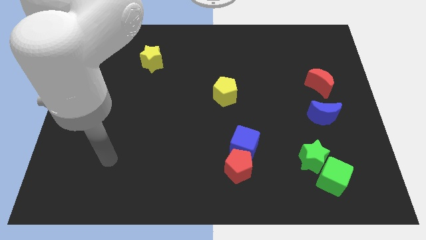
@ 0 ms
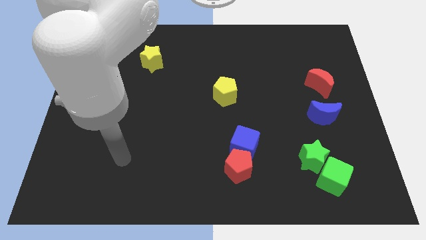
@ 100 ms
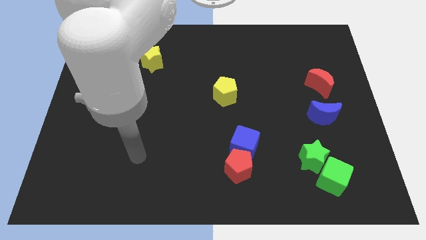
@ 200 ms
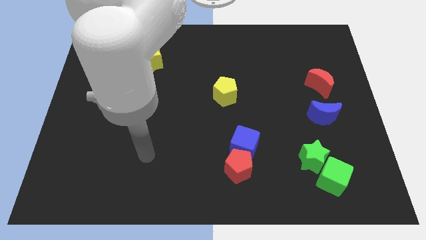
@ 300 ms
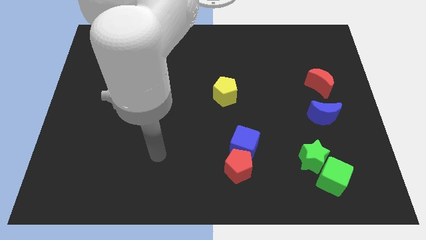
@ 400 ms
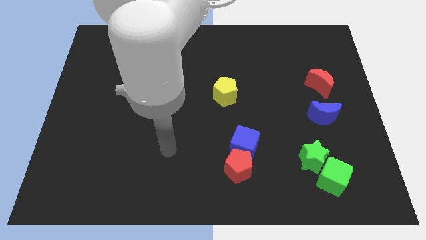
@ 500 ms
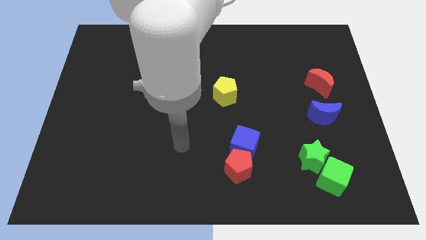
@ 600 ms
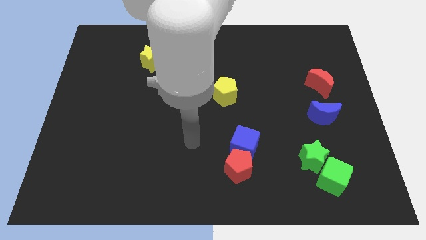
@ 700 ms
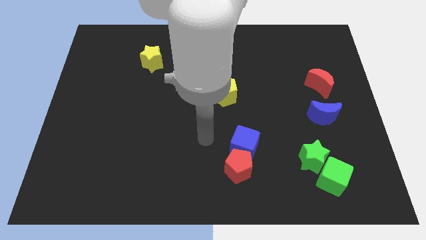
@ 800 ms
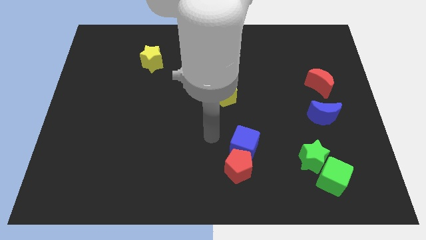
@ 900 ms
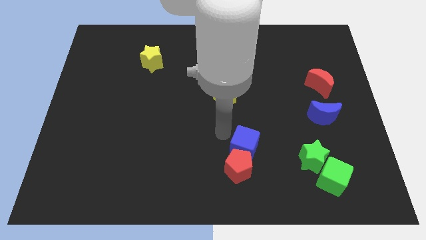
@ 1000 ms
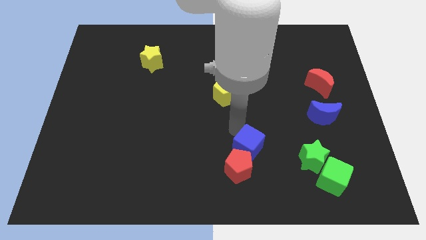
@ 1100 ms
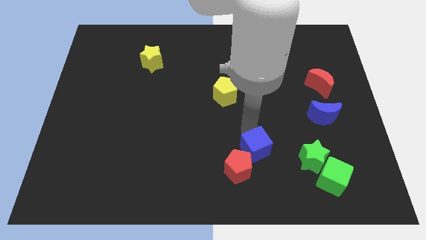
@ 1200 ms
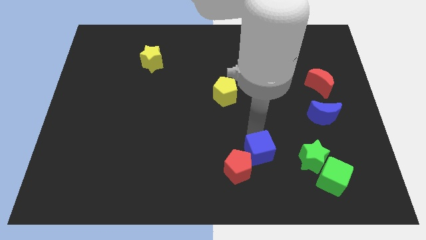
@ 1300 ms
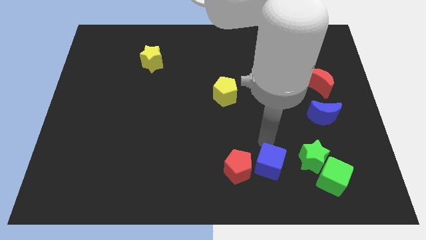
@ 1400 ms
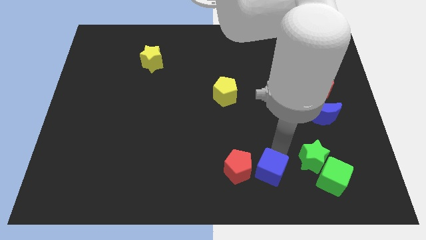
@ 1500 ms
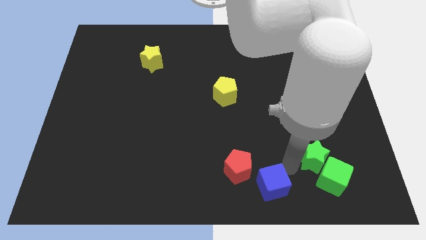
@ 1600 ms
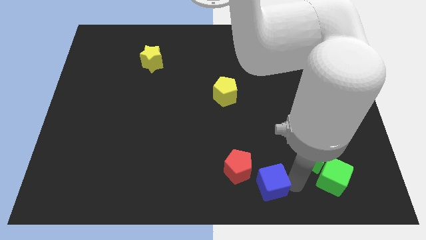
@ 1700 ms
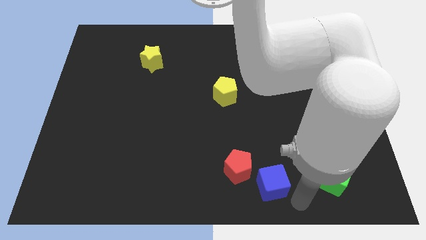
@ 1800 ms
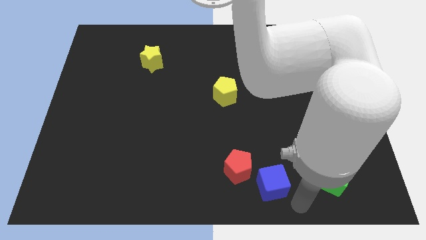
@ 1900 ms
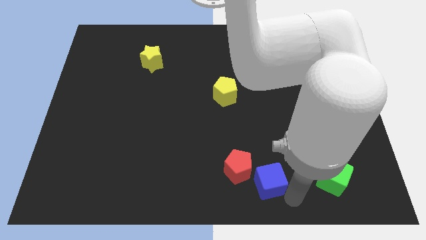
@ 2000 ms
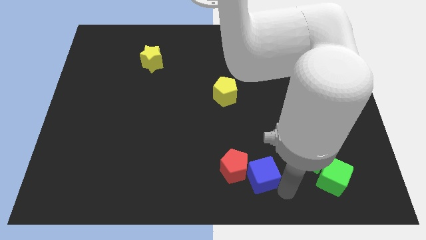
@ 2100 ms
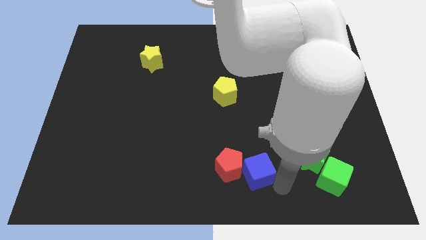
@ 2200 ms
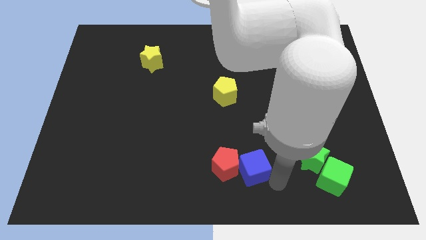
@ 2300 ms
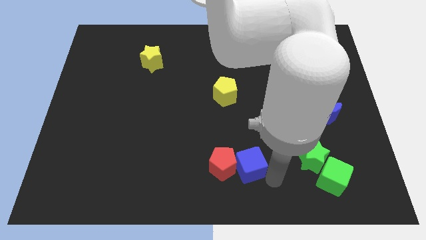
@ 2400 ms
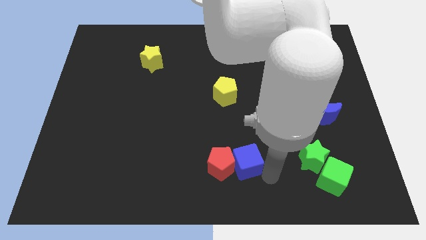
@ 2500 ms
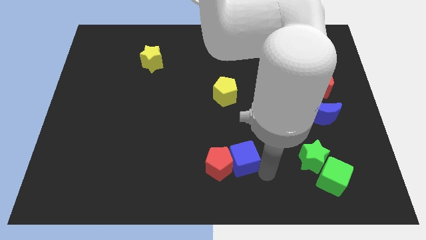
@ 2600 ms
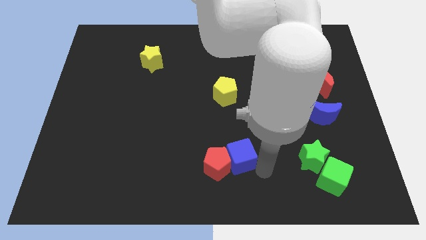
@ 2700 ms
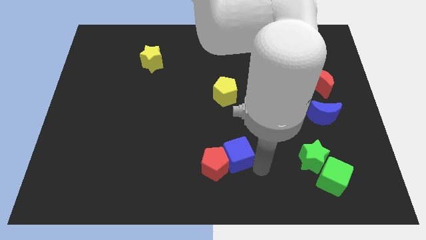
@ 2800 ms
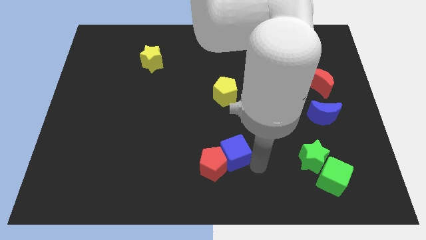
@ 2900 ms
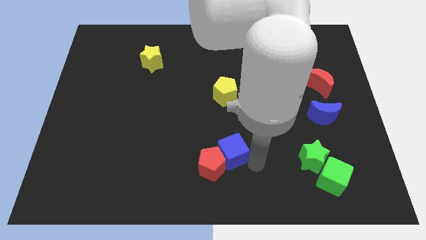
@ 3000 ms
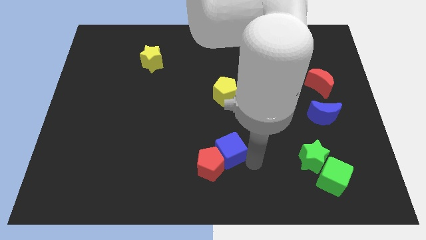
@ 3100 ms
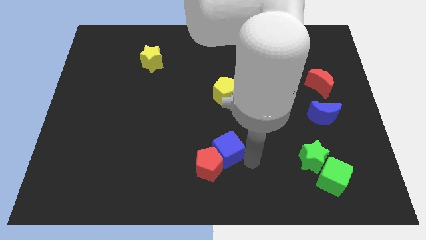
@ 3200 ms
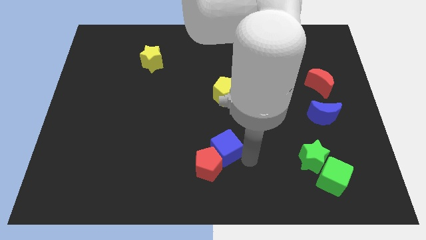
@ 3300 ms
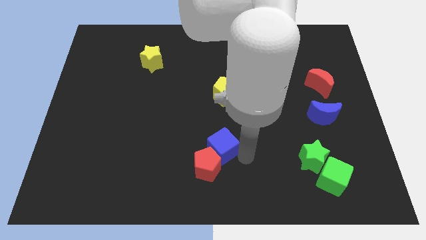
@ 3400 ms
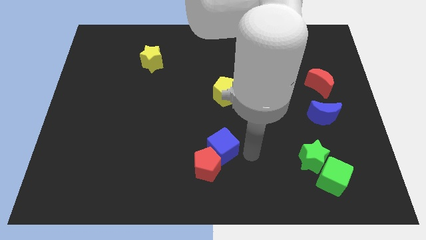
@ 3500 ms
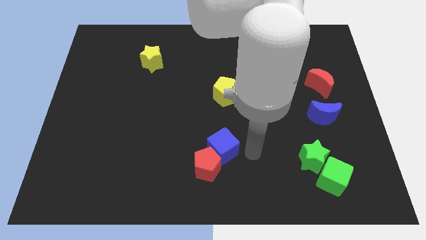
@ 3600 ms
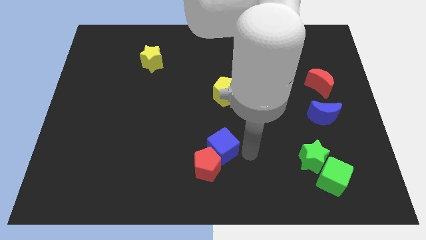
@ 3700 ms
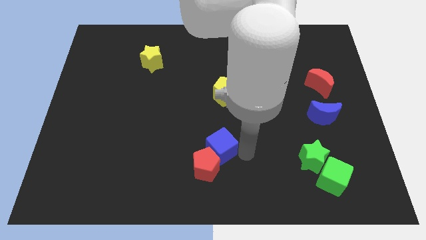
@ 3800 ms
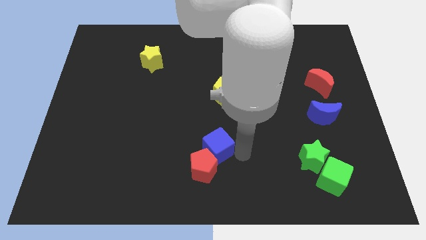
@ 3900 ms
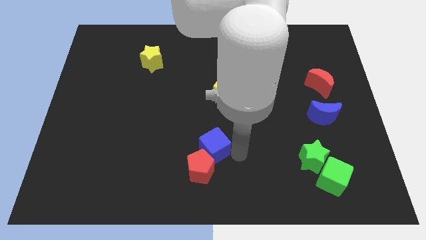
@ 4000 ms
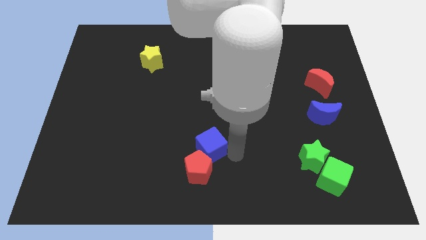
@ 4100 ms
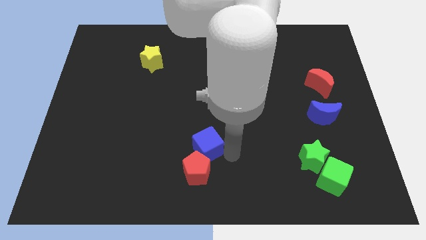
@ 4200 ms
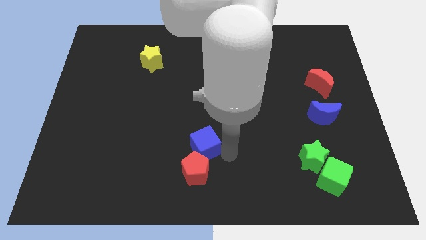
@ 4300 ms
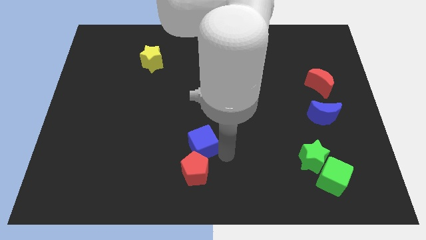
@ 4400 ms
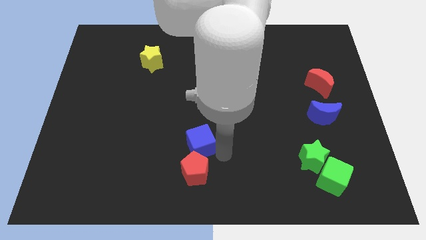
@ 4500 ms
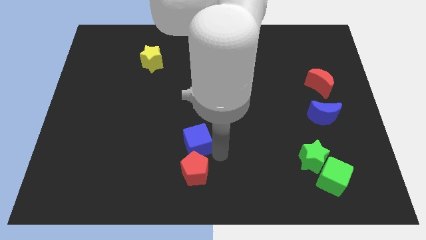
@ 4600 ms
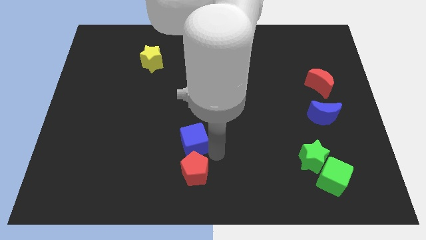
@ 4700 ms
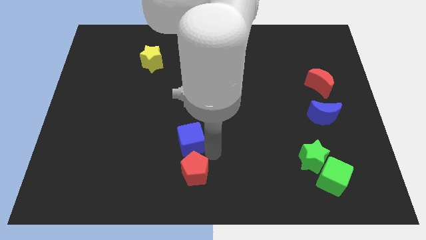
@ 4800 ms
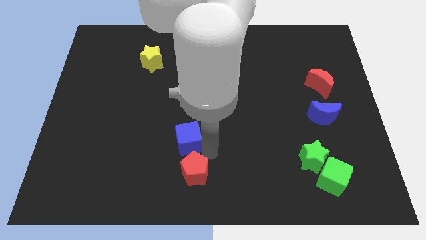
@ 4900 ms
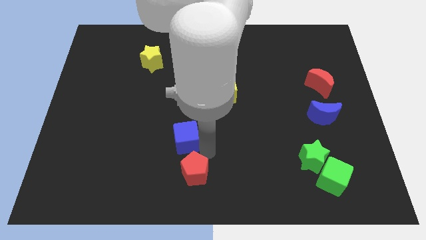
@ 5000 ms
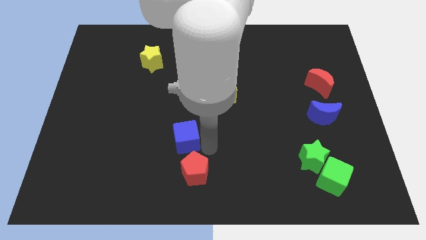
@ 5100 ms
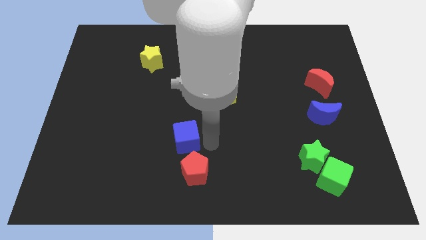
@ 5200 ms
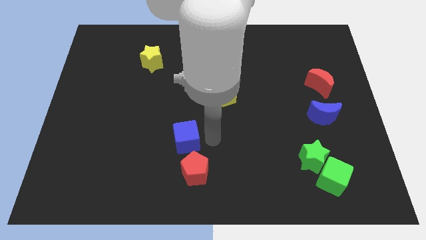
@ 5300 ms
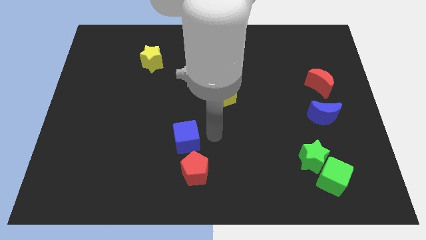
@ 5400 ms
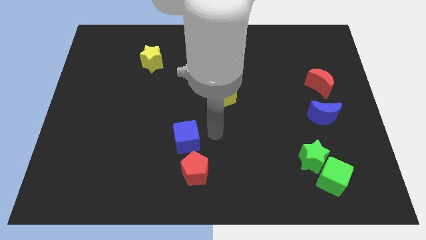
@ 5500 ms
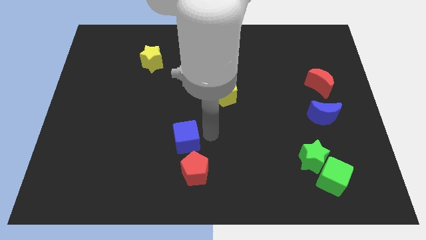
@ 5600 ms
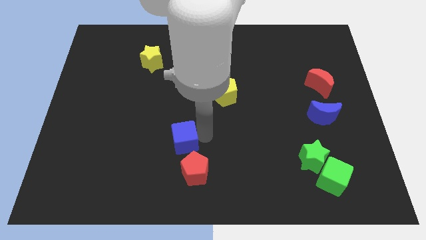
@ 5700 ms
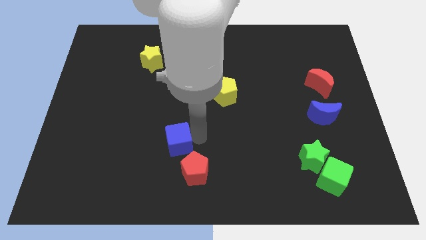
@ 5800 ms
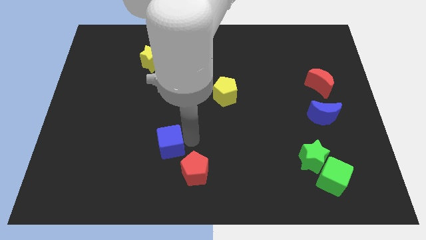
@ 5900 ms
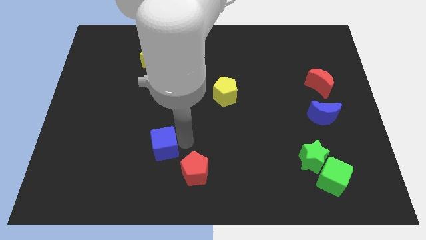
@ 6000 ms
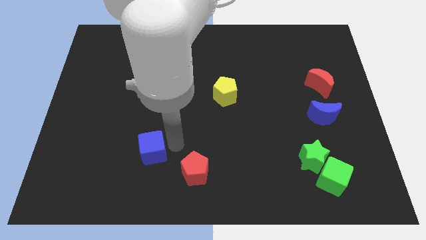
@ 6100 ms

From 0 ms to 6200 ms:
slide the blue cube left

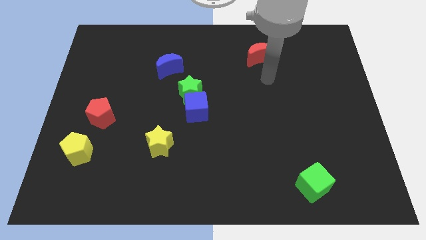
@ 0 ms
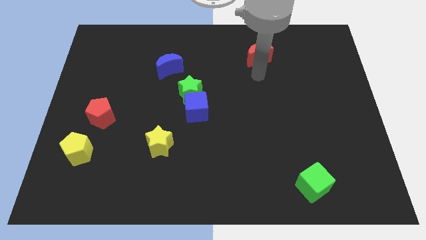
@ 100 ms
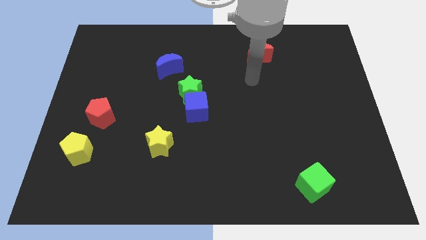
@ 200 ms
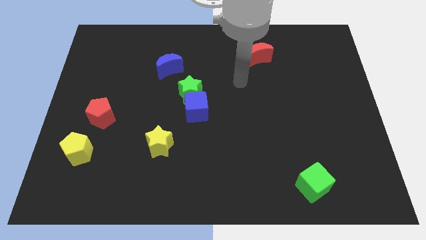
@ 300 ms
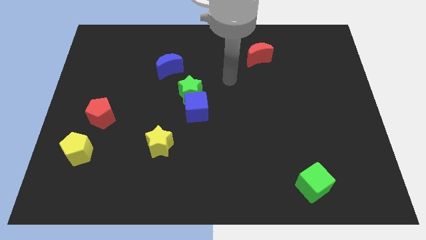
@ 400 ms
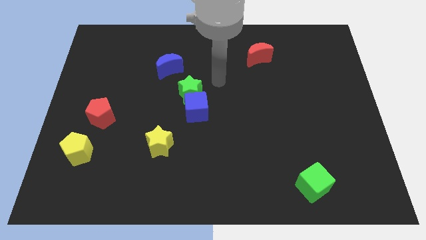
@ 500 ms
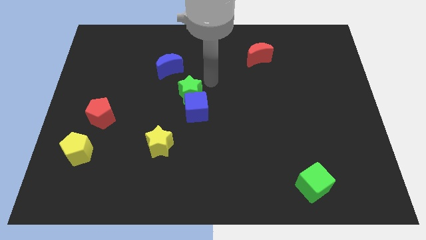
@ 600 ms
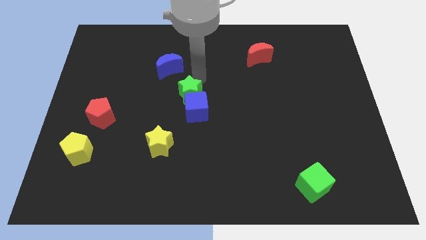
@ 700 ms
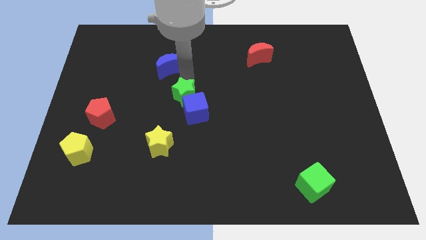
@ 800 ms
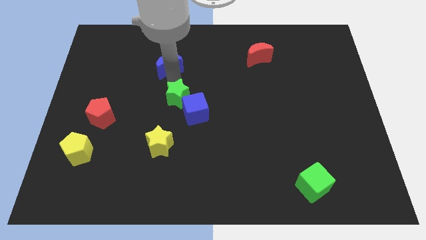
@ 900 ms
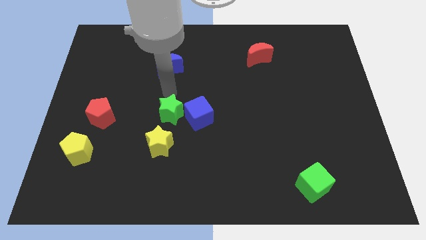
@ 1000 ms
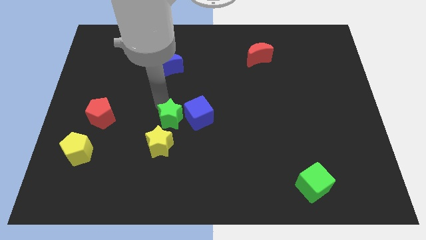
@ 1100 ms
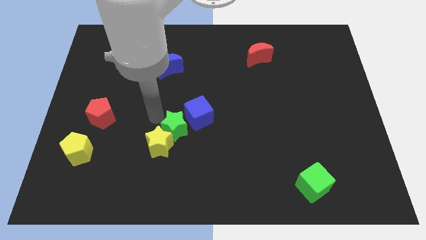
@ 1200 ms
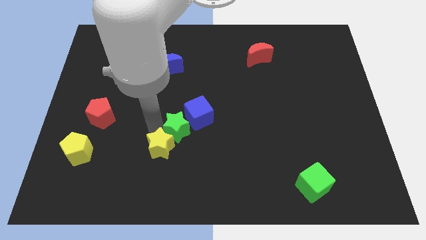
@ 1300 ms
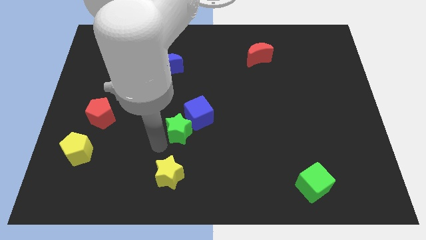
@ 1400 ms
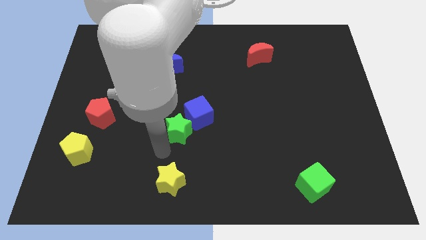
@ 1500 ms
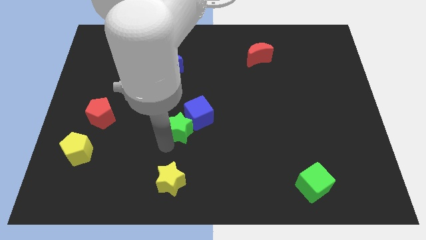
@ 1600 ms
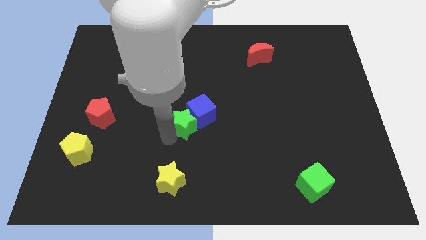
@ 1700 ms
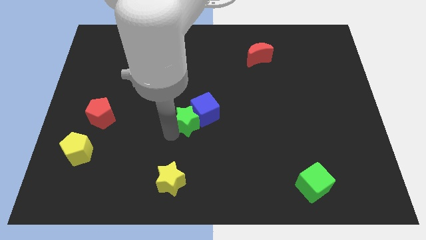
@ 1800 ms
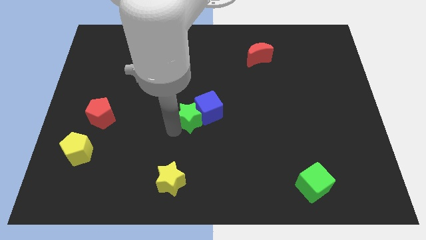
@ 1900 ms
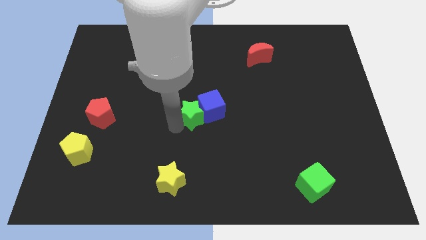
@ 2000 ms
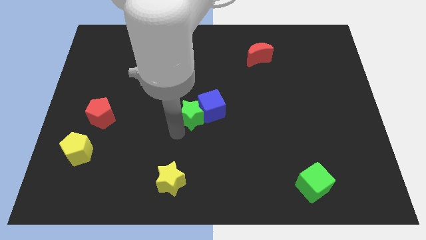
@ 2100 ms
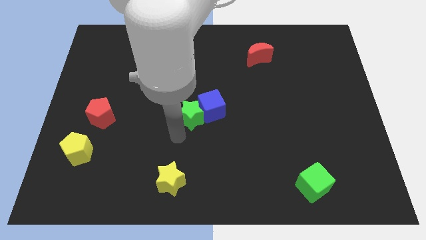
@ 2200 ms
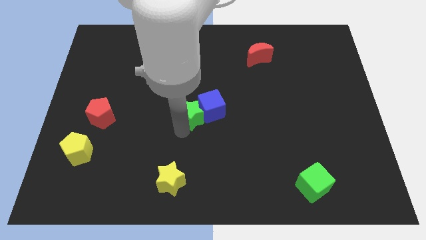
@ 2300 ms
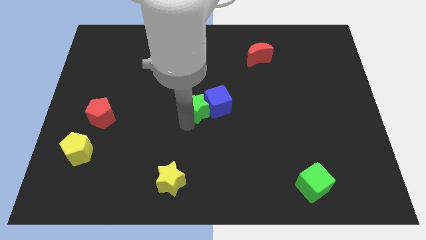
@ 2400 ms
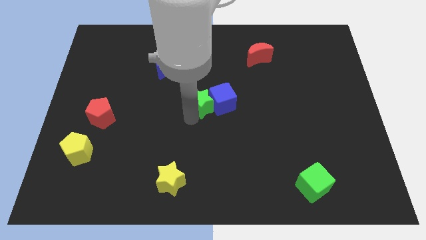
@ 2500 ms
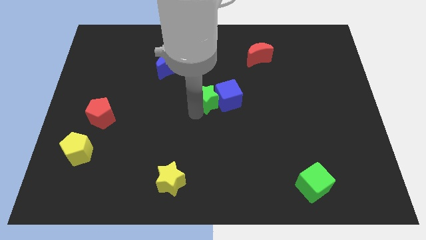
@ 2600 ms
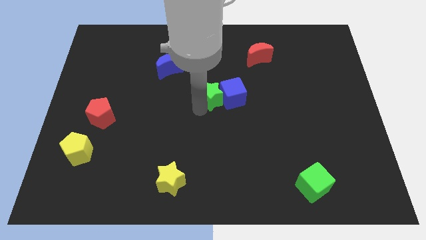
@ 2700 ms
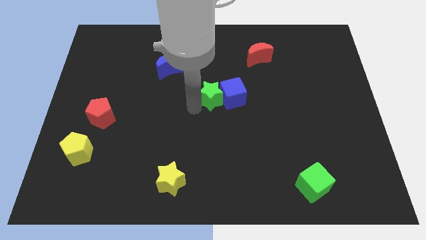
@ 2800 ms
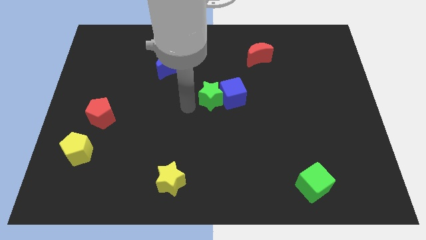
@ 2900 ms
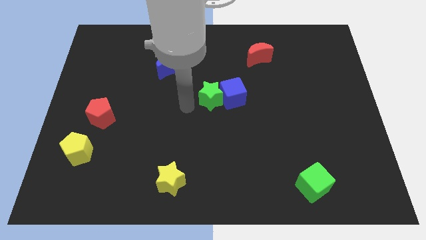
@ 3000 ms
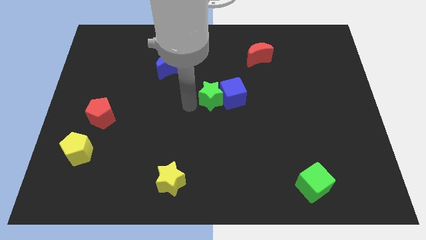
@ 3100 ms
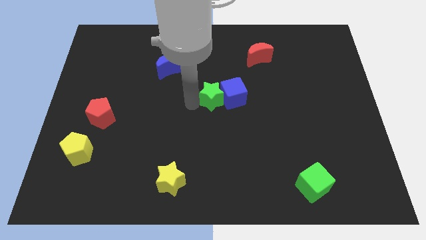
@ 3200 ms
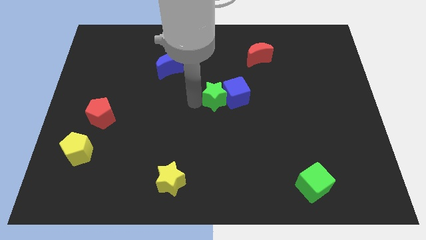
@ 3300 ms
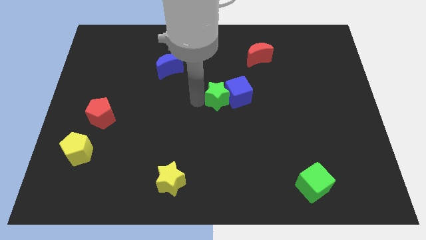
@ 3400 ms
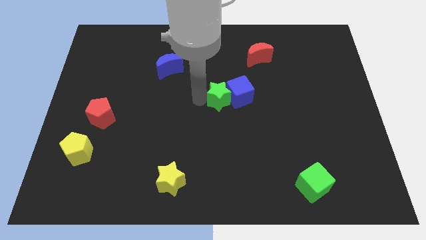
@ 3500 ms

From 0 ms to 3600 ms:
move the green star right a little
